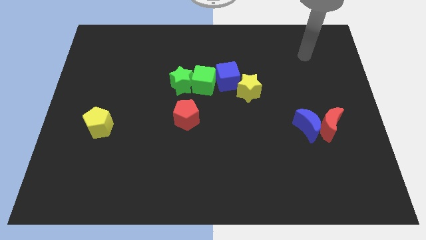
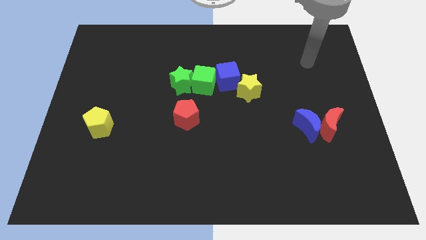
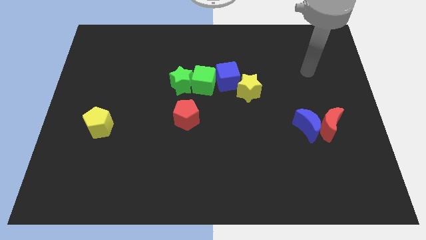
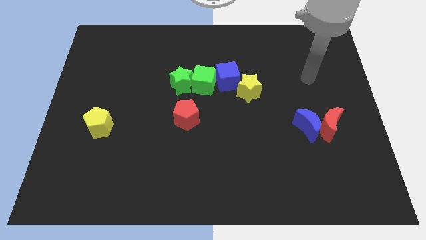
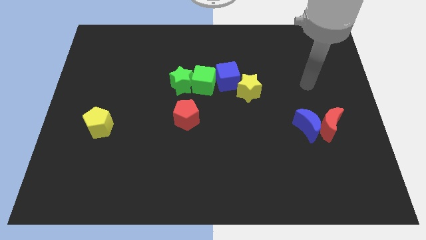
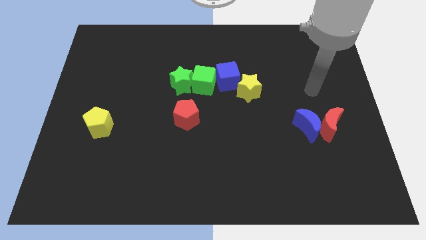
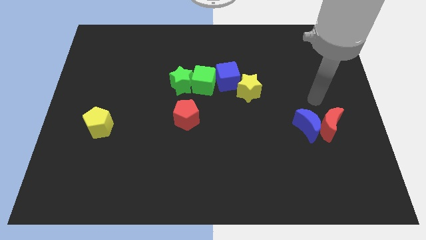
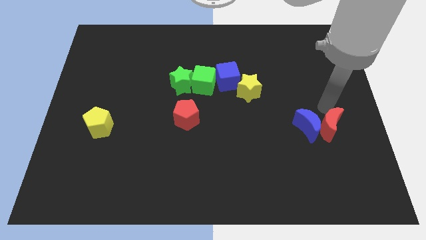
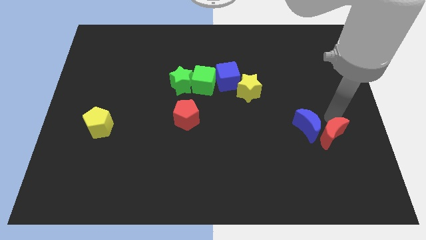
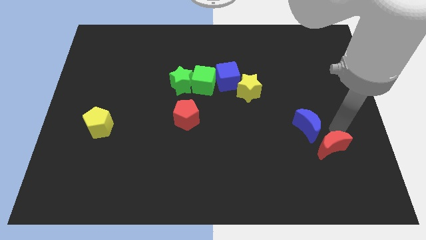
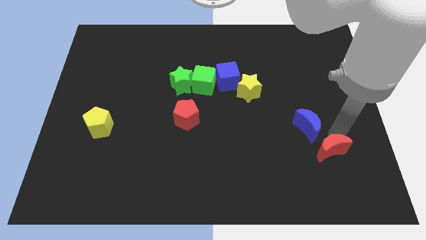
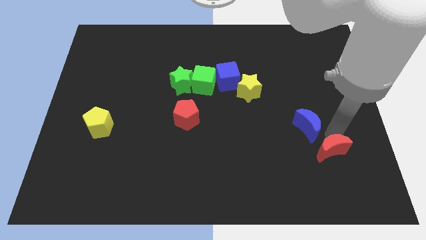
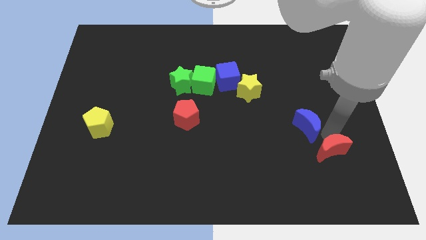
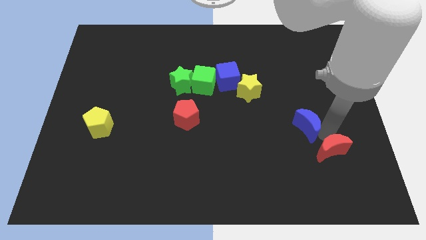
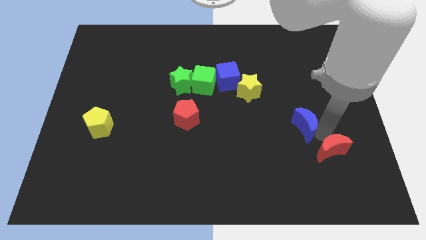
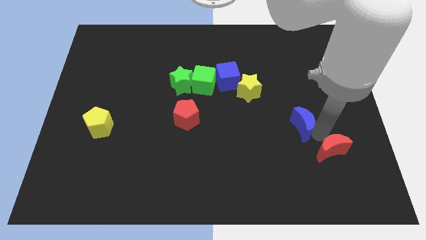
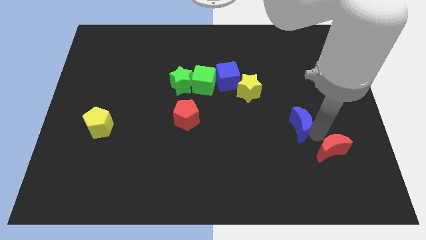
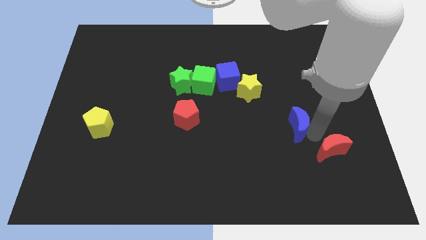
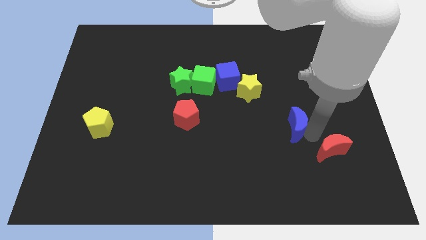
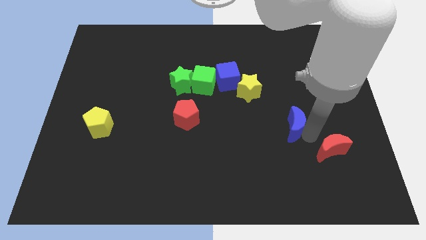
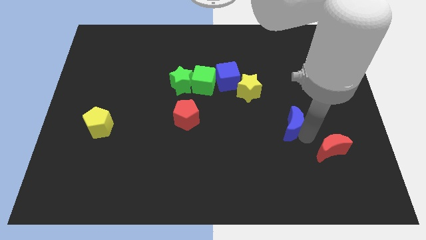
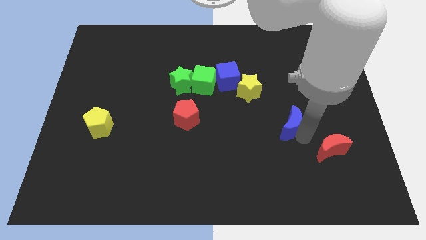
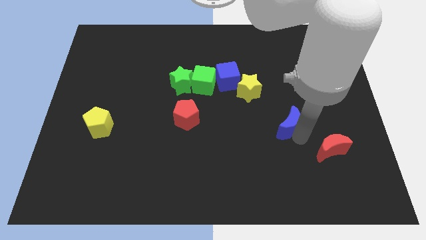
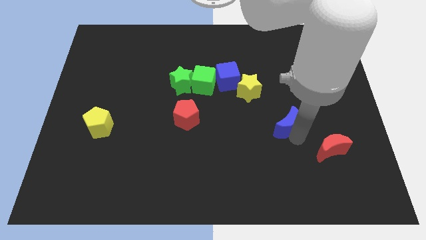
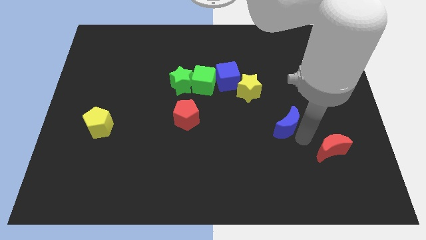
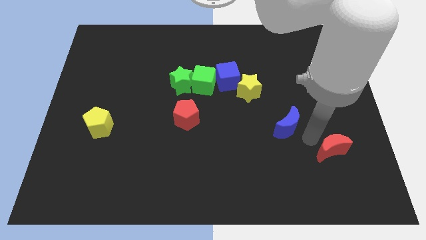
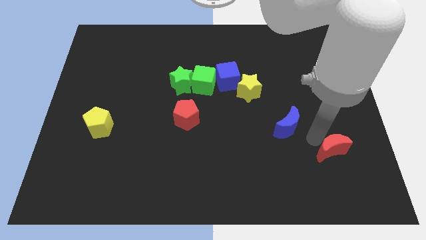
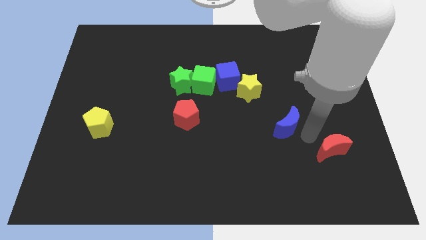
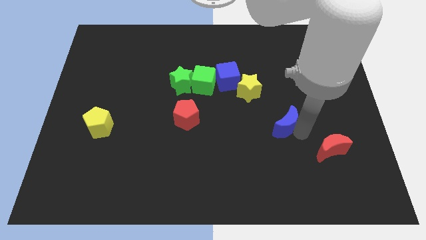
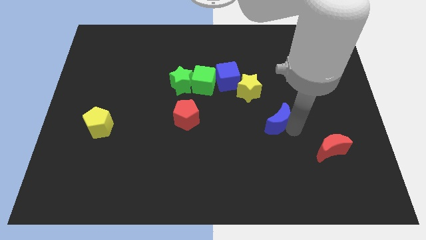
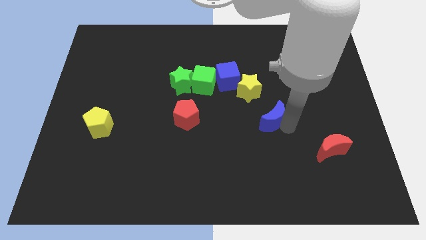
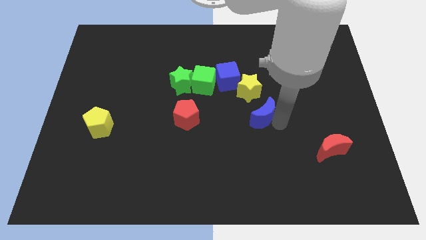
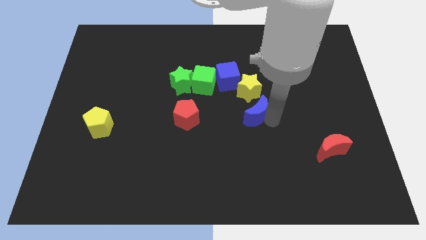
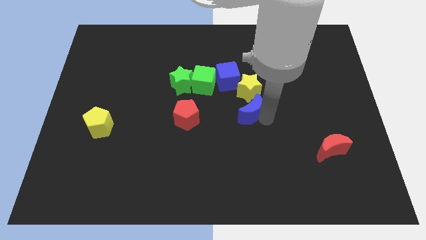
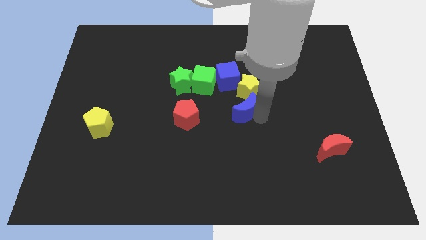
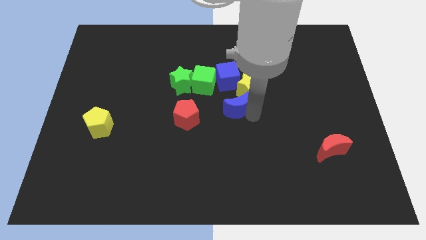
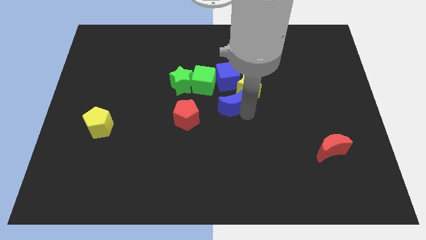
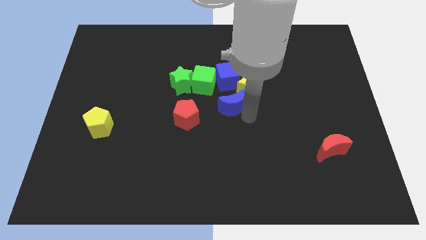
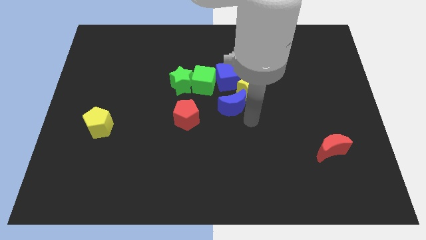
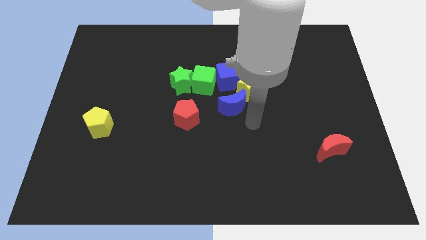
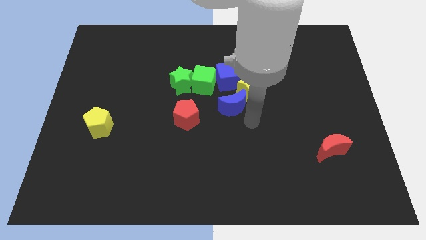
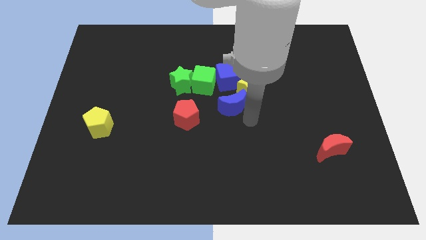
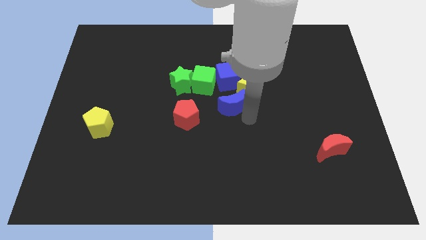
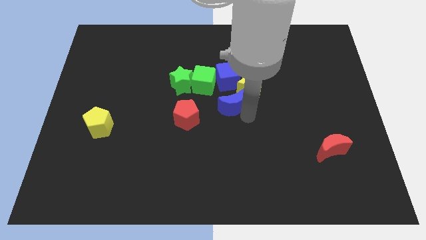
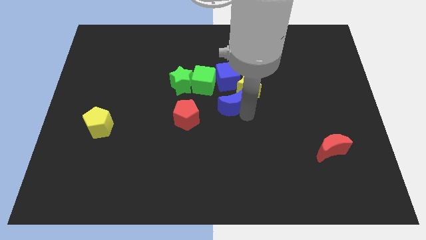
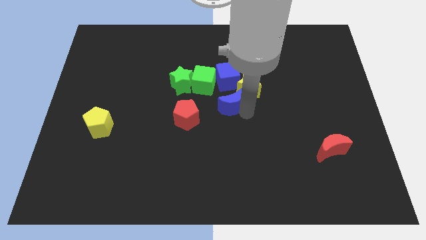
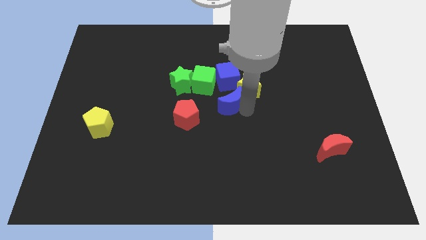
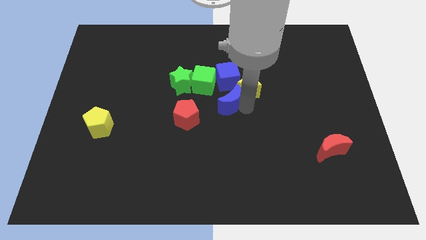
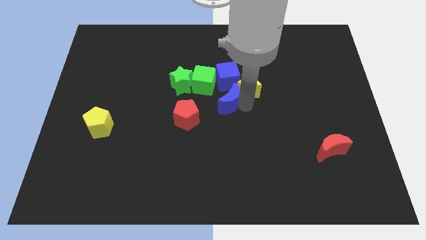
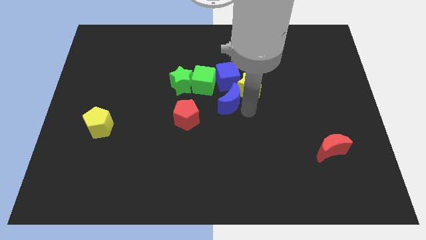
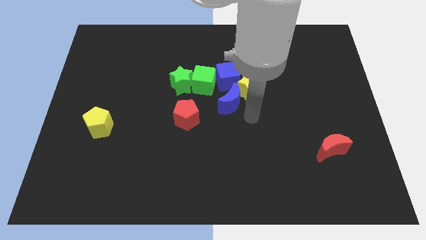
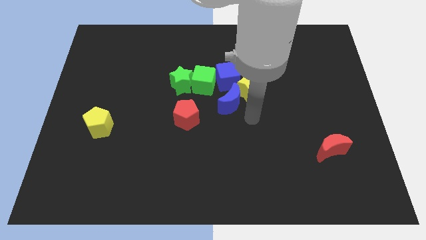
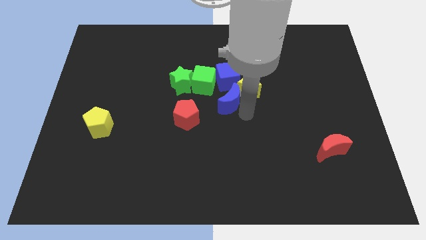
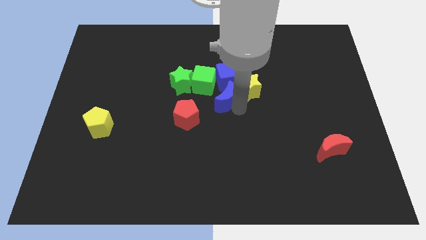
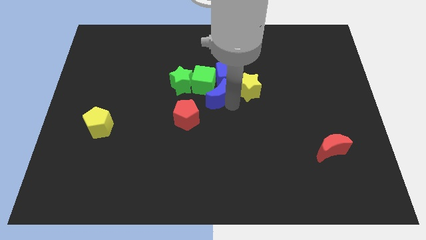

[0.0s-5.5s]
put the blue moon next to the green cube

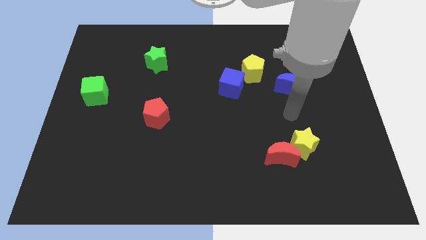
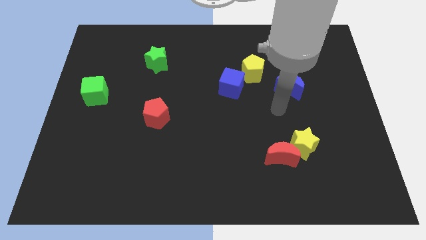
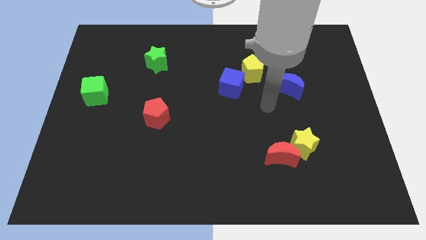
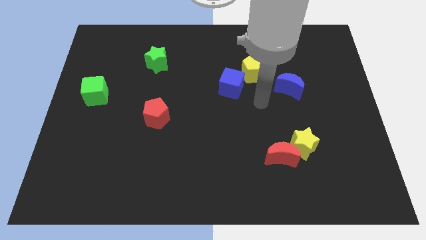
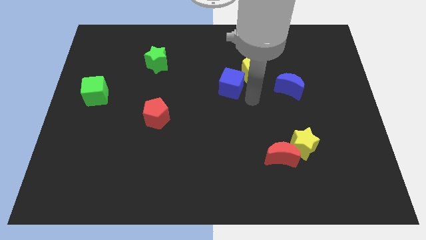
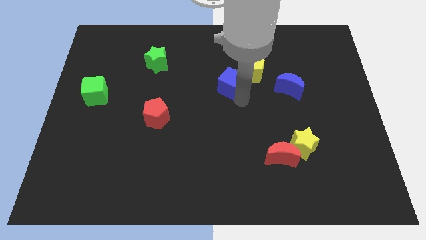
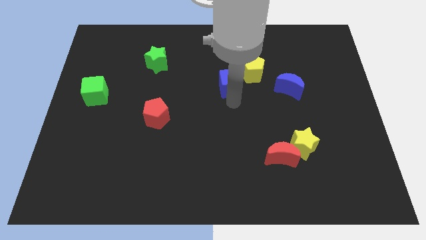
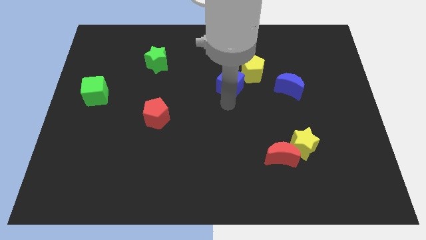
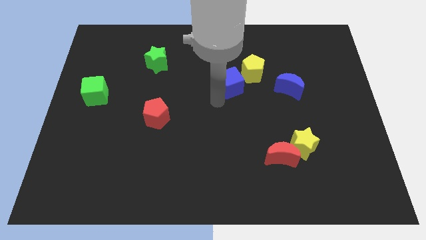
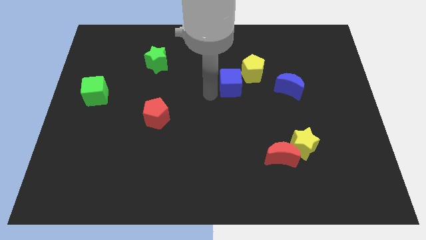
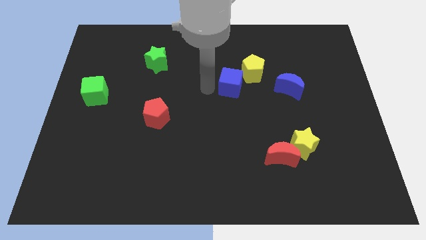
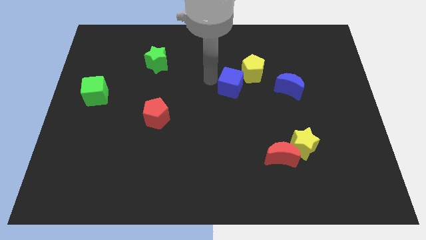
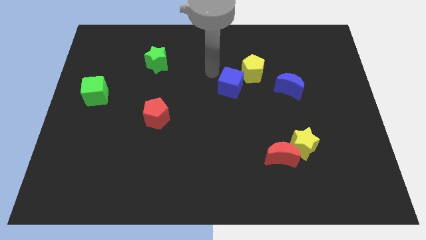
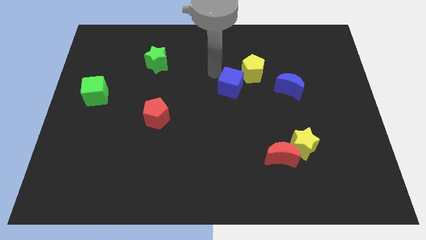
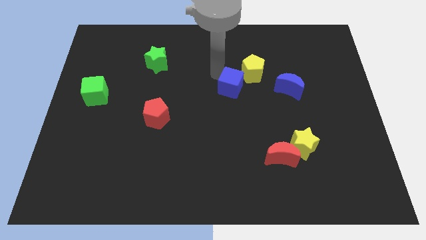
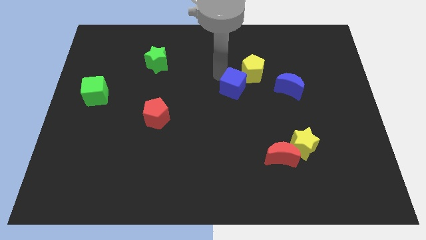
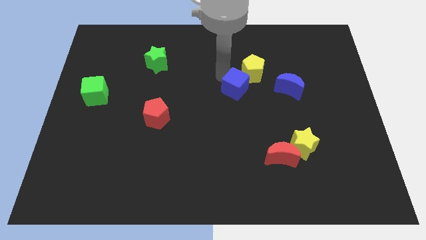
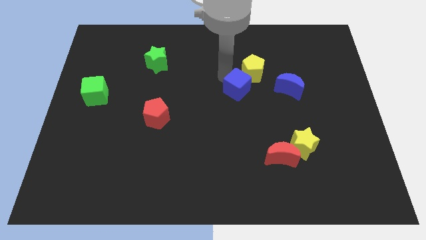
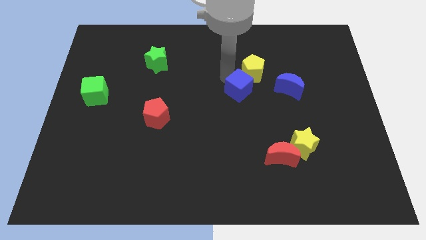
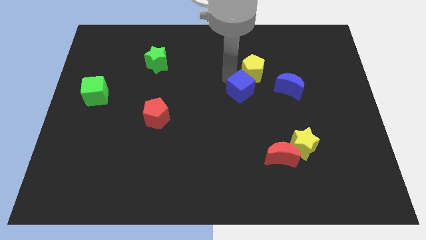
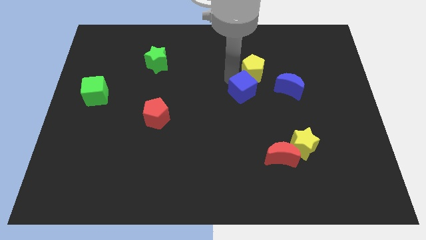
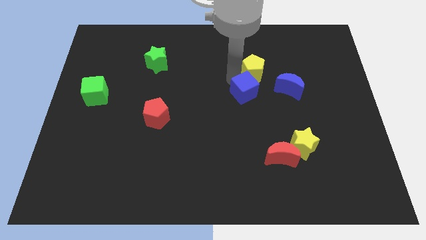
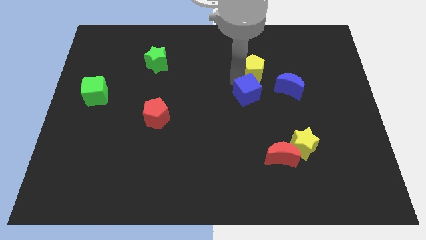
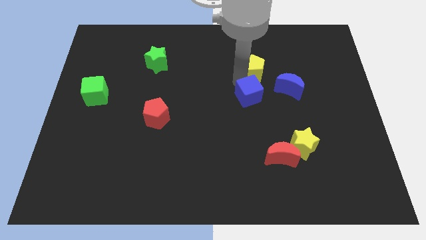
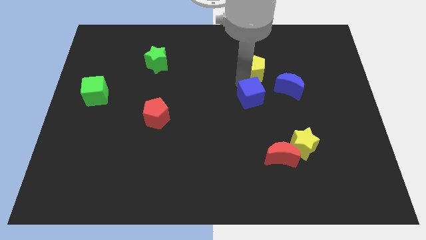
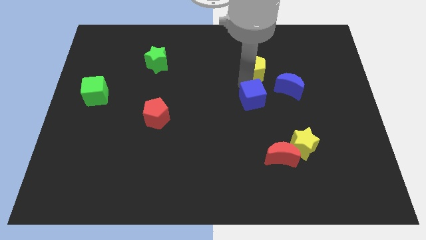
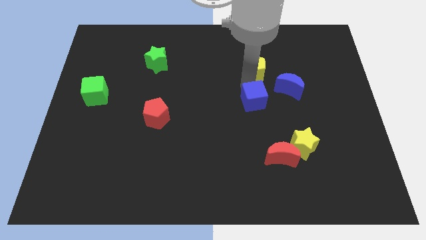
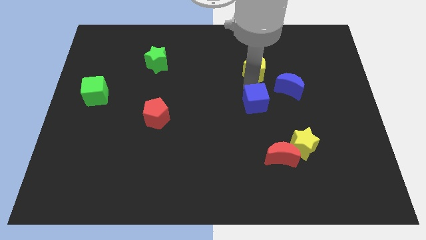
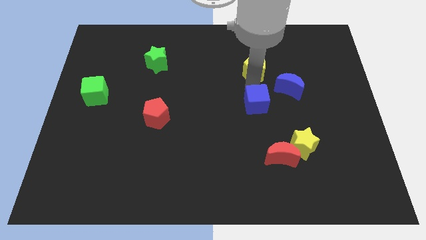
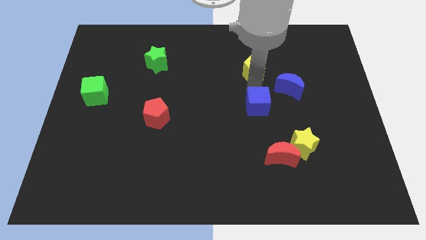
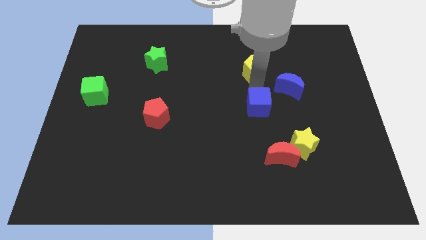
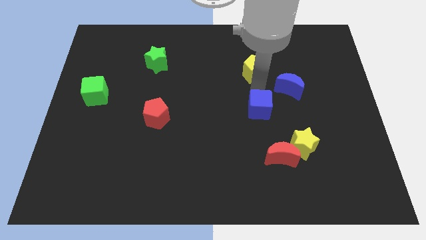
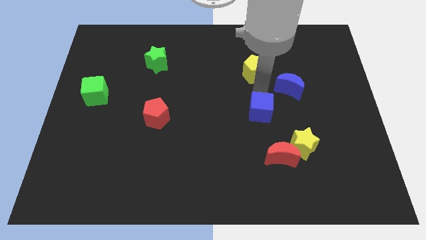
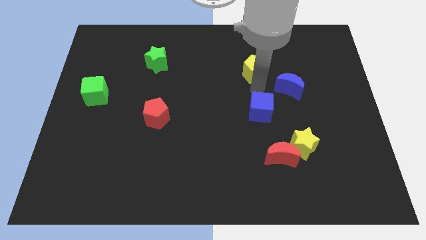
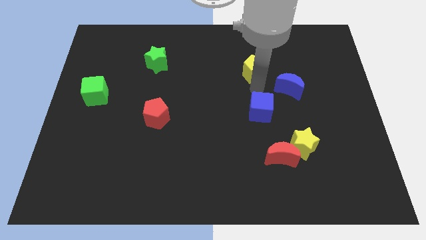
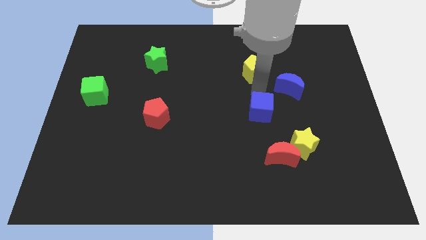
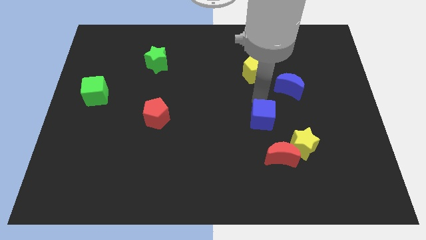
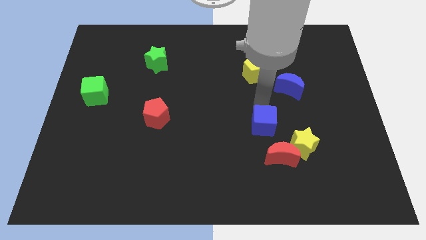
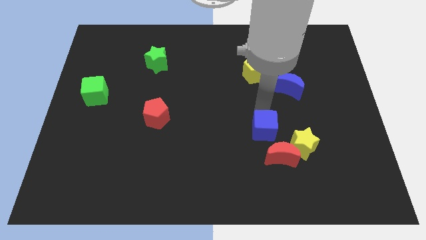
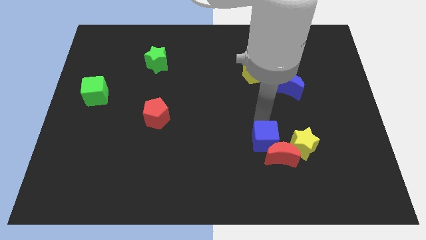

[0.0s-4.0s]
slide the blue cube to the red moon
